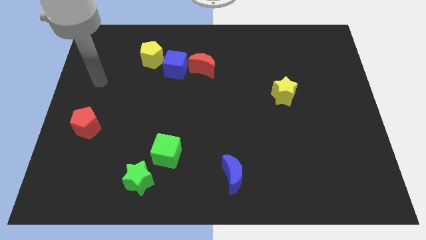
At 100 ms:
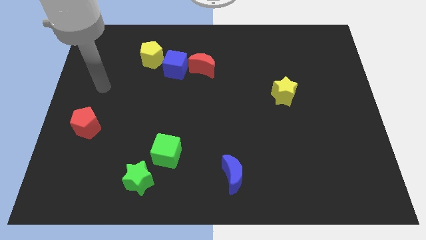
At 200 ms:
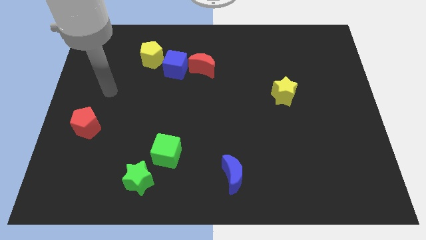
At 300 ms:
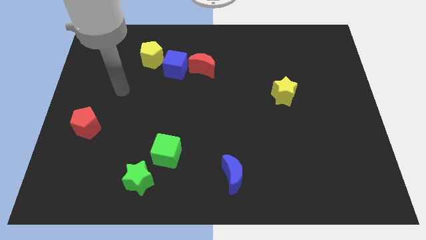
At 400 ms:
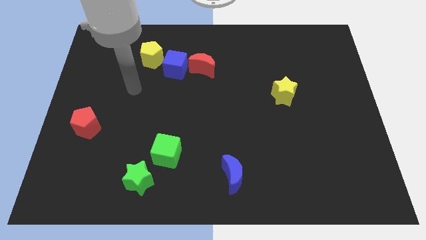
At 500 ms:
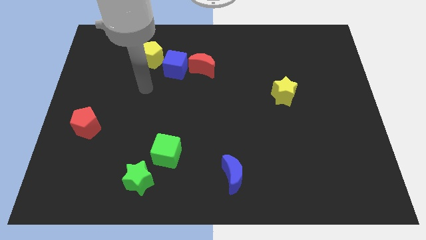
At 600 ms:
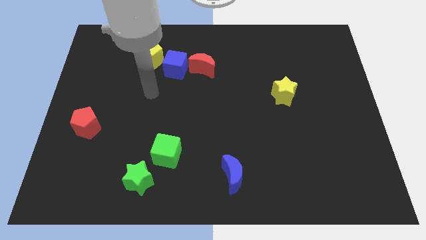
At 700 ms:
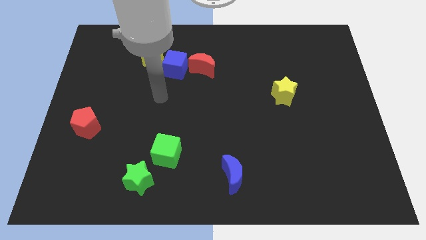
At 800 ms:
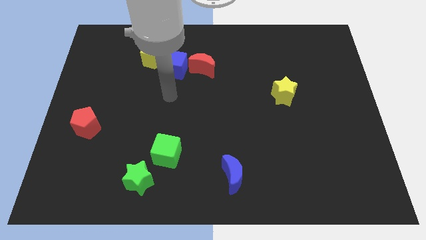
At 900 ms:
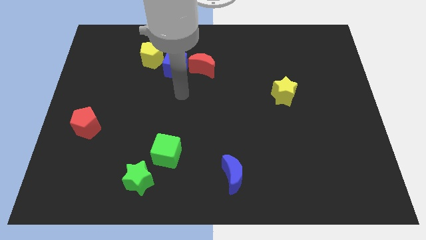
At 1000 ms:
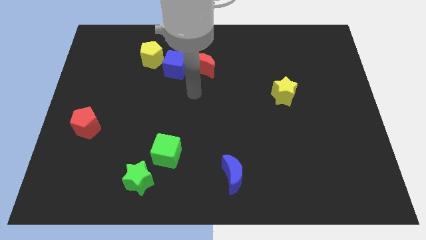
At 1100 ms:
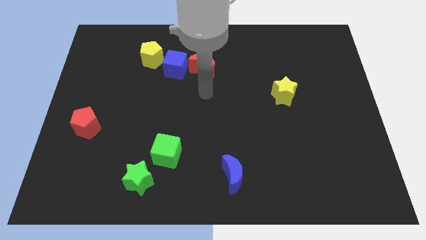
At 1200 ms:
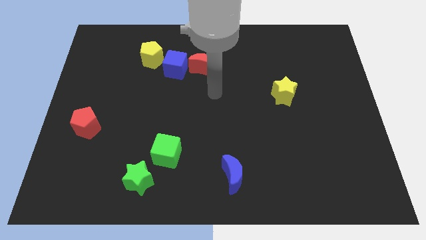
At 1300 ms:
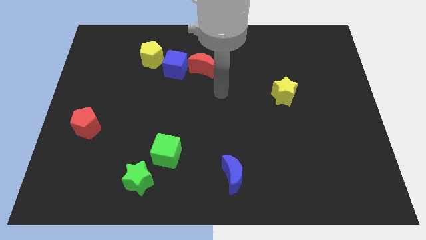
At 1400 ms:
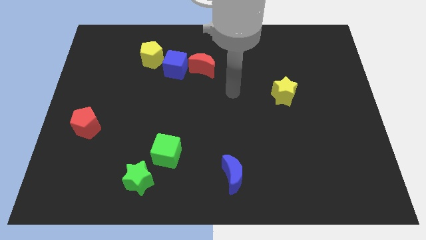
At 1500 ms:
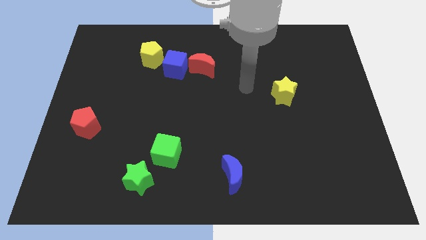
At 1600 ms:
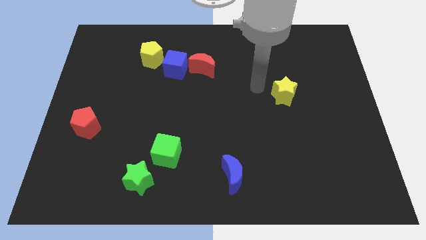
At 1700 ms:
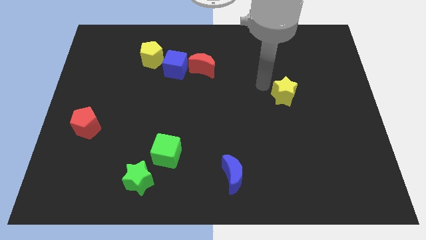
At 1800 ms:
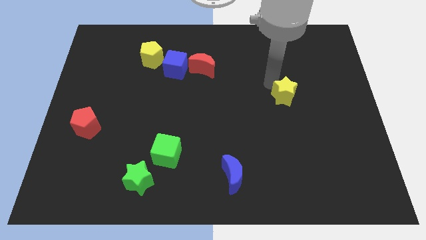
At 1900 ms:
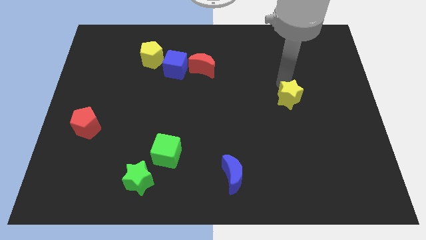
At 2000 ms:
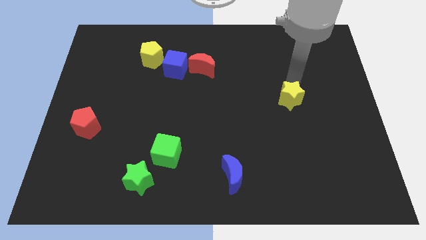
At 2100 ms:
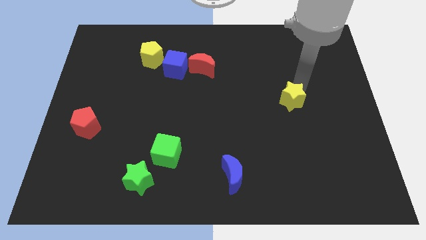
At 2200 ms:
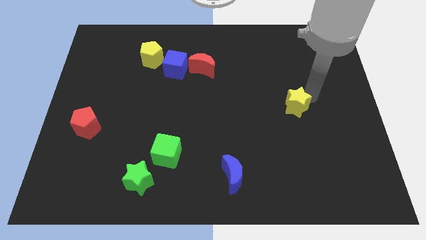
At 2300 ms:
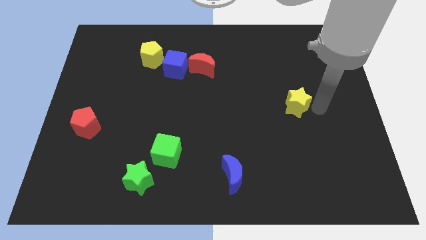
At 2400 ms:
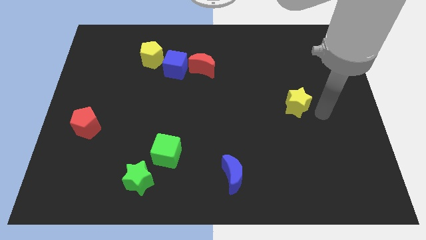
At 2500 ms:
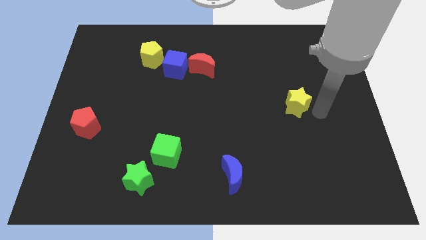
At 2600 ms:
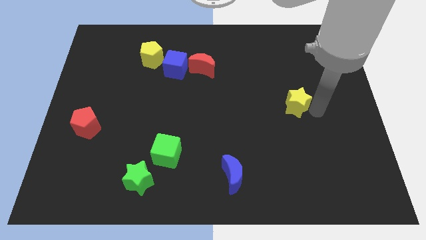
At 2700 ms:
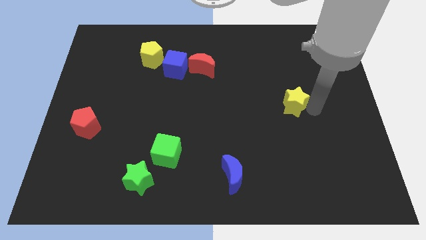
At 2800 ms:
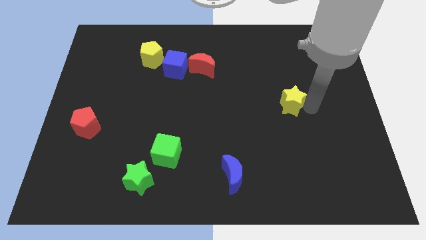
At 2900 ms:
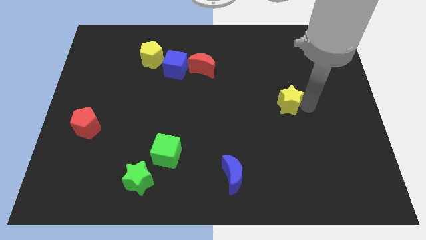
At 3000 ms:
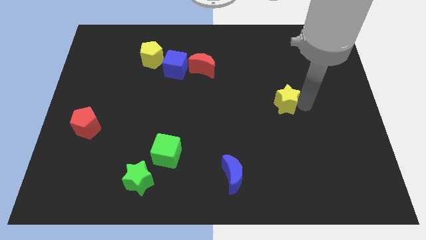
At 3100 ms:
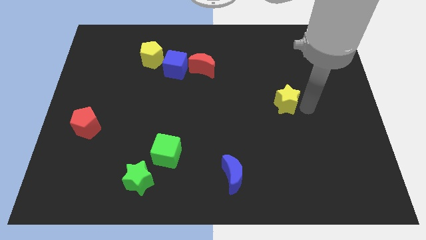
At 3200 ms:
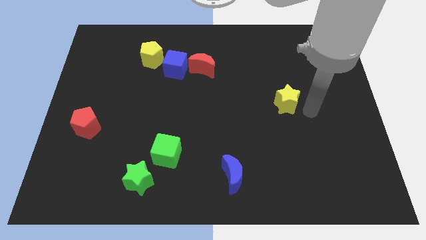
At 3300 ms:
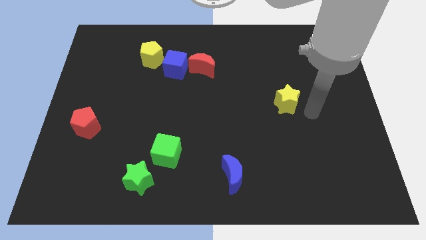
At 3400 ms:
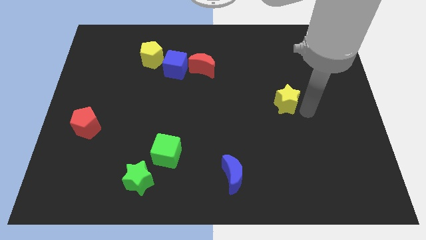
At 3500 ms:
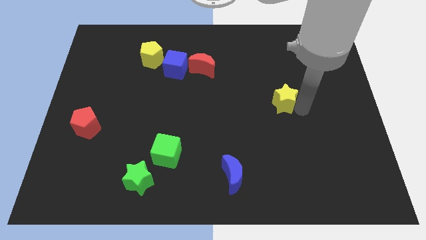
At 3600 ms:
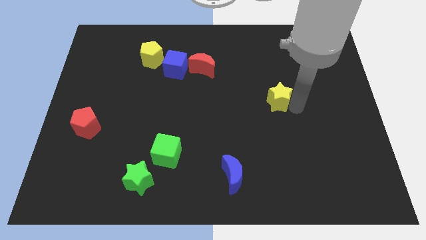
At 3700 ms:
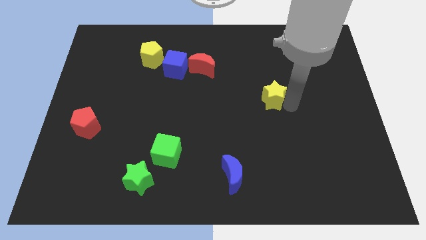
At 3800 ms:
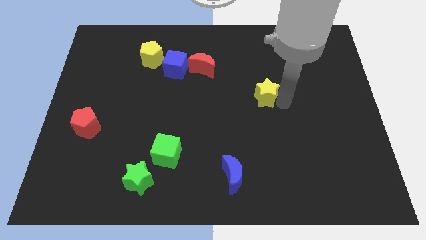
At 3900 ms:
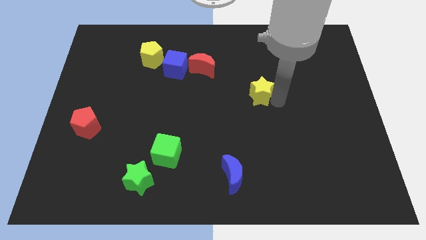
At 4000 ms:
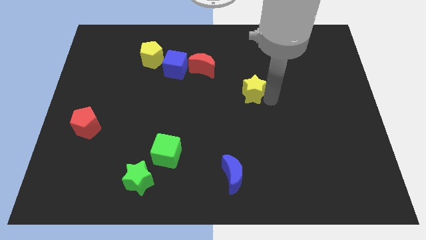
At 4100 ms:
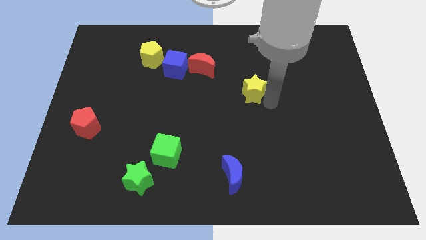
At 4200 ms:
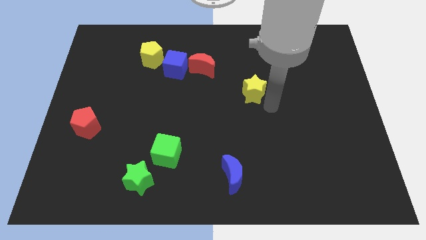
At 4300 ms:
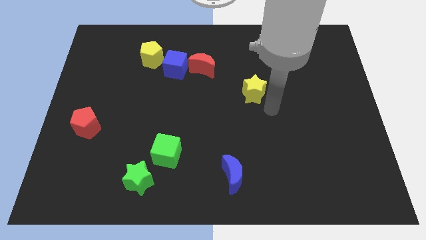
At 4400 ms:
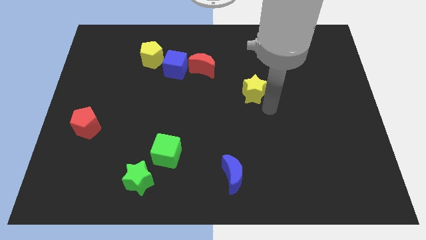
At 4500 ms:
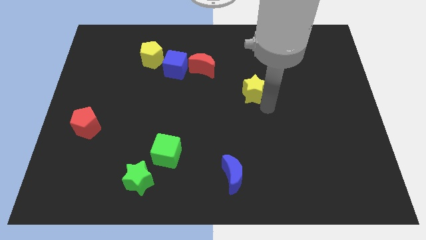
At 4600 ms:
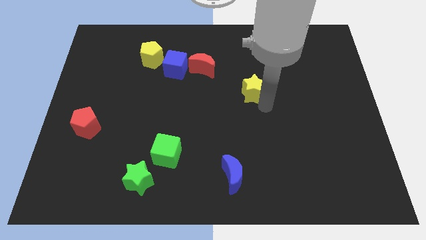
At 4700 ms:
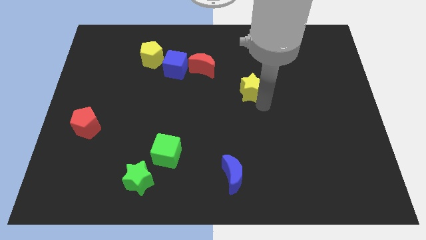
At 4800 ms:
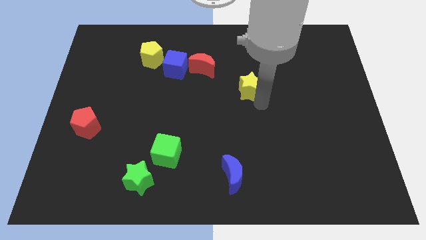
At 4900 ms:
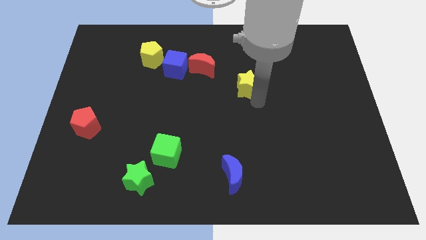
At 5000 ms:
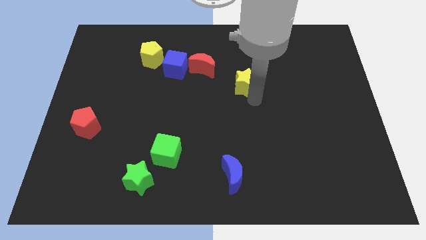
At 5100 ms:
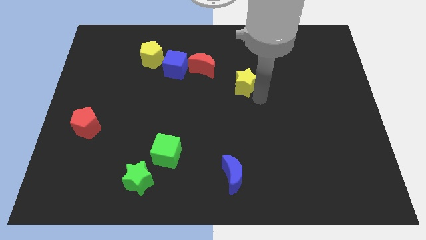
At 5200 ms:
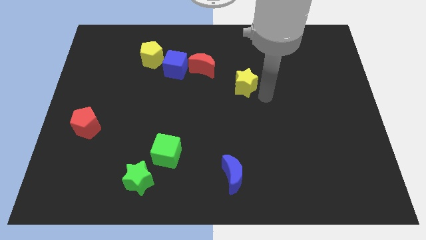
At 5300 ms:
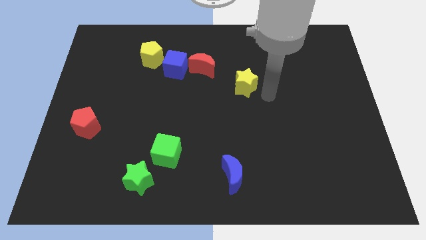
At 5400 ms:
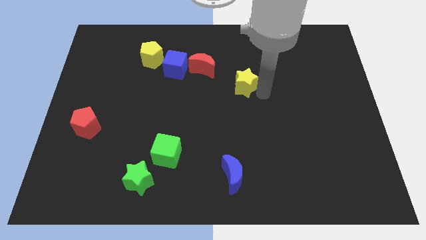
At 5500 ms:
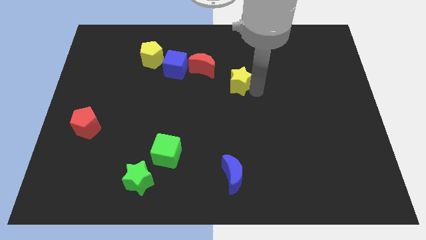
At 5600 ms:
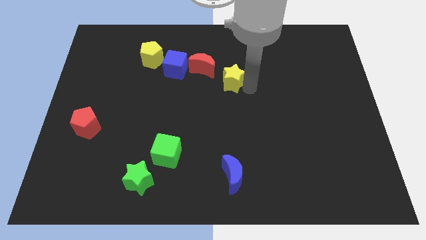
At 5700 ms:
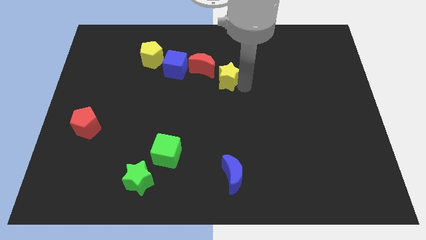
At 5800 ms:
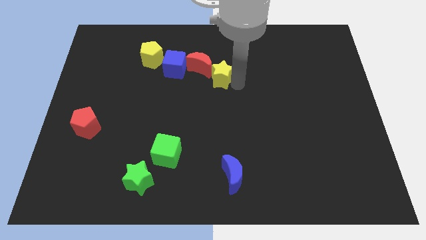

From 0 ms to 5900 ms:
push the yellow star next to the red moon

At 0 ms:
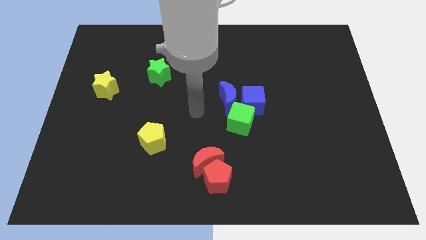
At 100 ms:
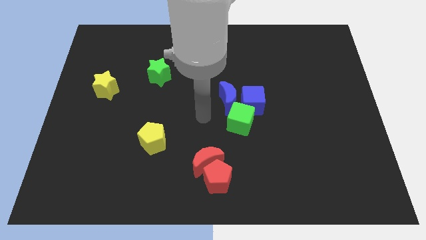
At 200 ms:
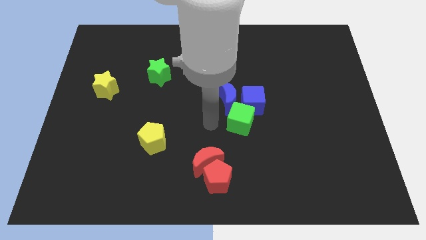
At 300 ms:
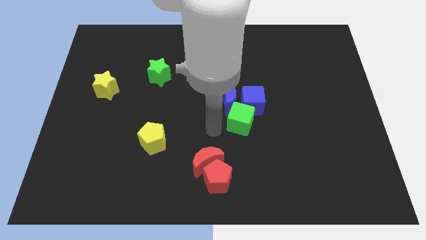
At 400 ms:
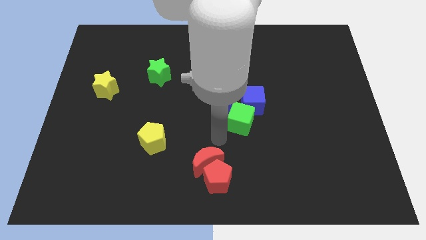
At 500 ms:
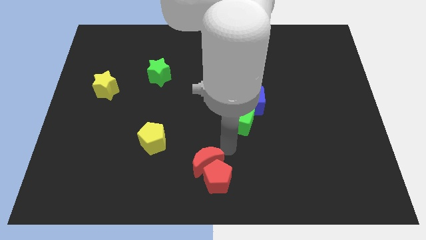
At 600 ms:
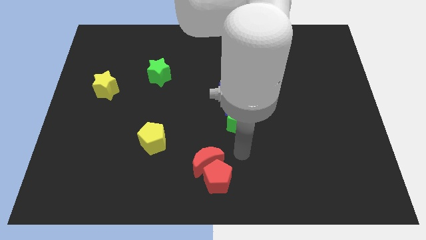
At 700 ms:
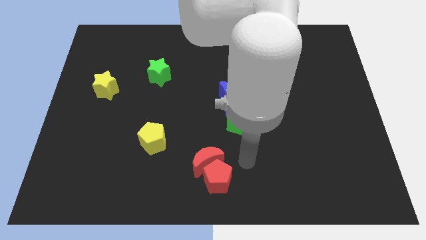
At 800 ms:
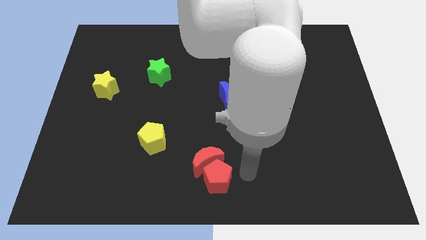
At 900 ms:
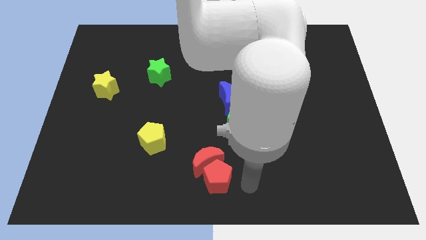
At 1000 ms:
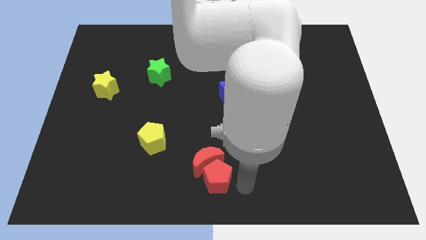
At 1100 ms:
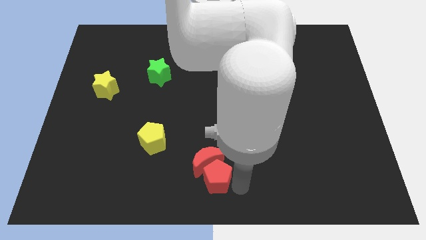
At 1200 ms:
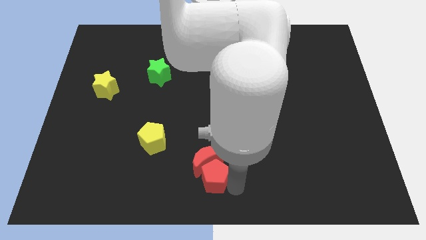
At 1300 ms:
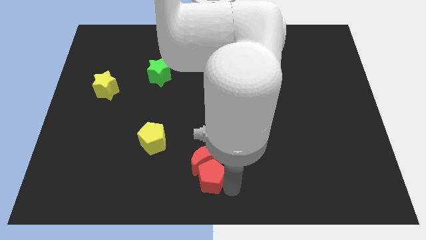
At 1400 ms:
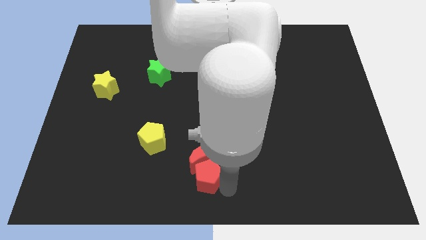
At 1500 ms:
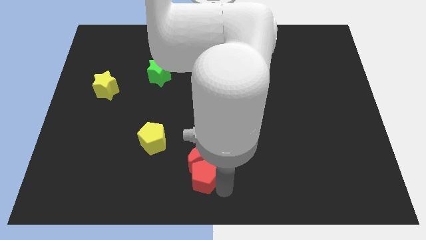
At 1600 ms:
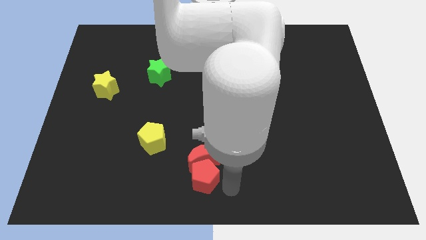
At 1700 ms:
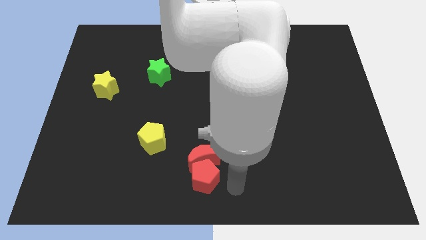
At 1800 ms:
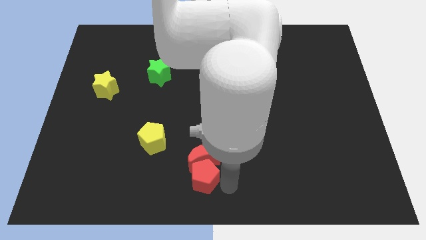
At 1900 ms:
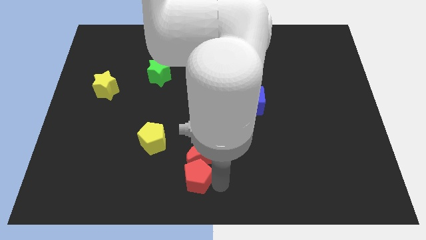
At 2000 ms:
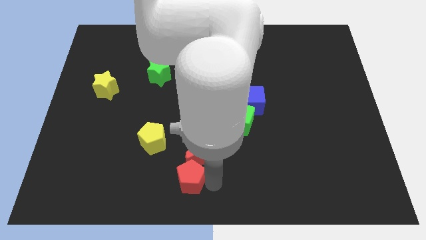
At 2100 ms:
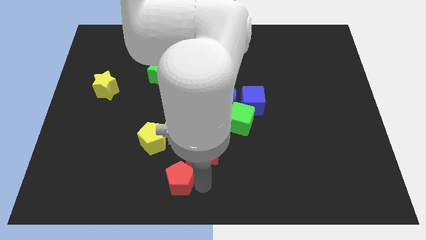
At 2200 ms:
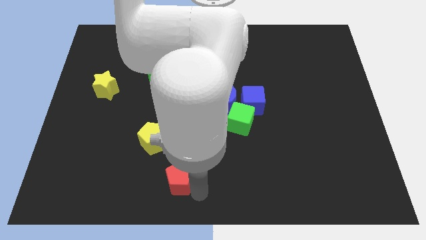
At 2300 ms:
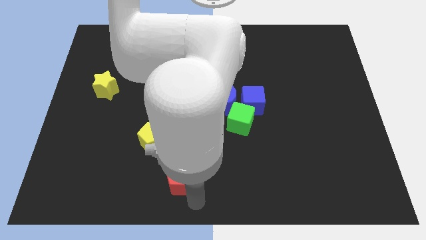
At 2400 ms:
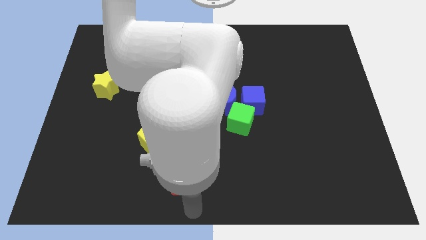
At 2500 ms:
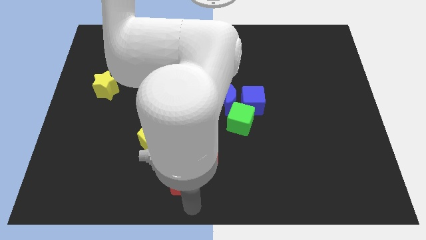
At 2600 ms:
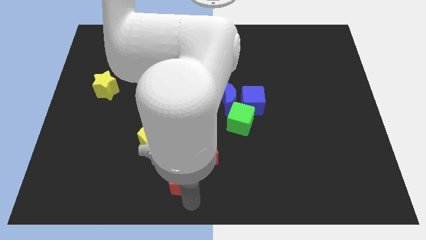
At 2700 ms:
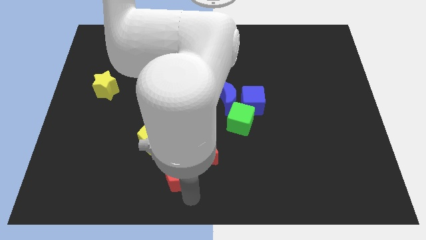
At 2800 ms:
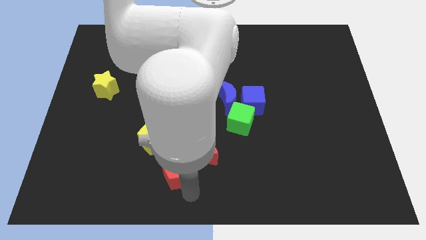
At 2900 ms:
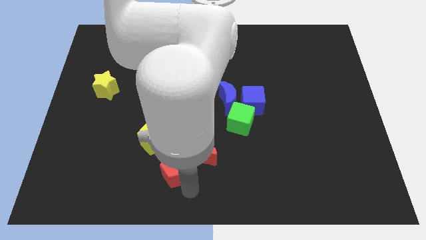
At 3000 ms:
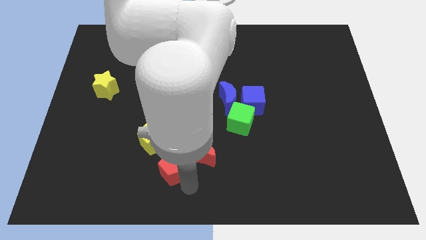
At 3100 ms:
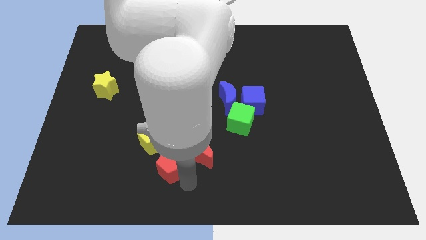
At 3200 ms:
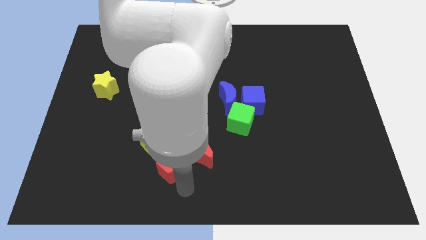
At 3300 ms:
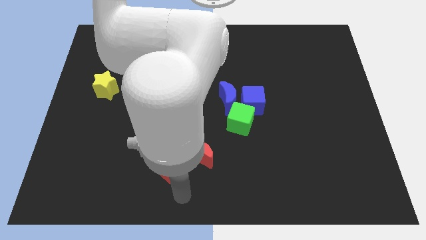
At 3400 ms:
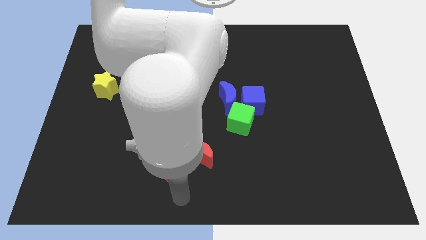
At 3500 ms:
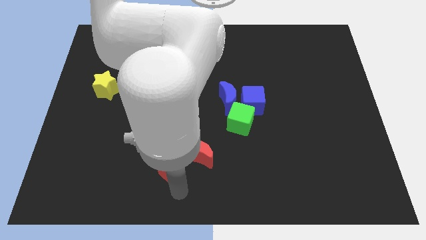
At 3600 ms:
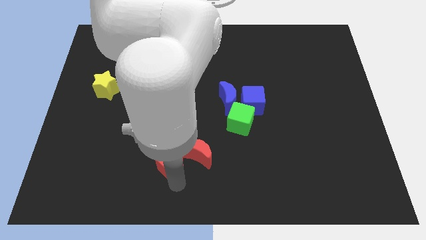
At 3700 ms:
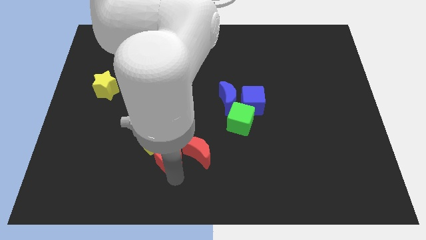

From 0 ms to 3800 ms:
slide the red pentagon towards the yellow pentagon
